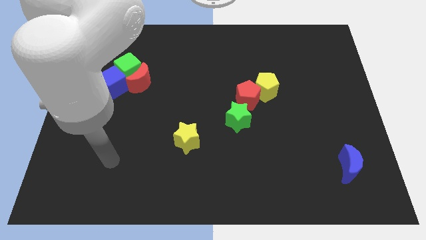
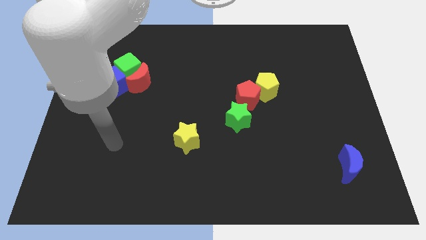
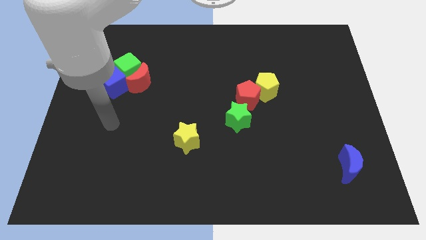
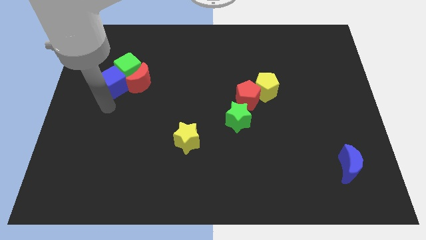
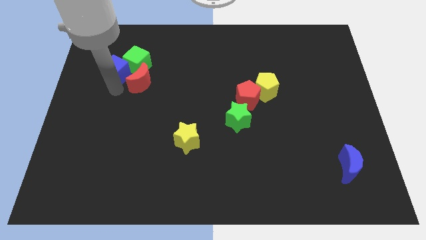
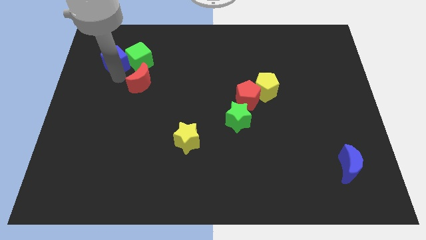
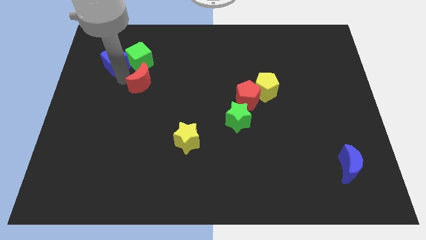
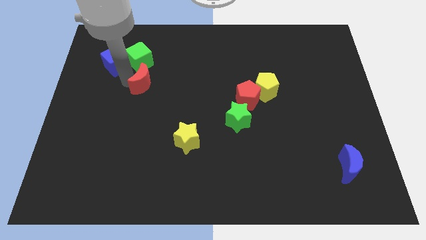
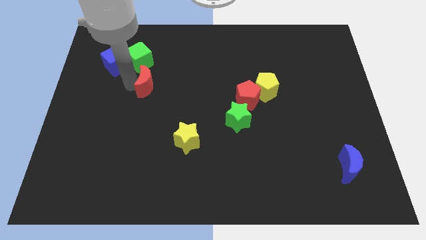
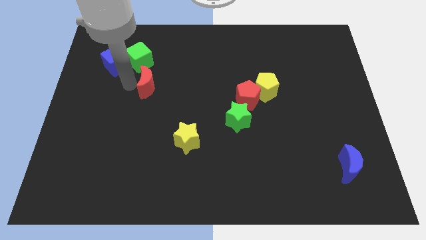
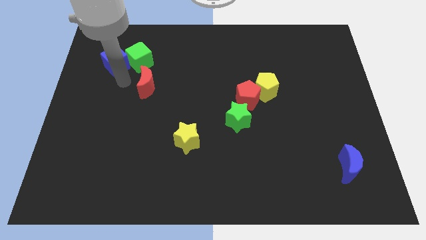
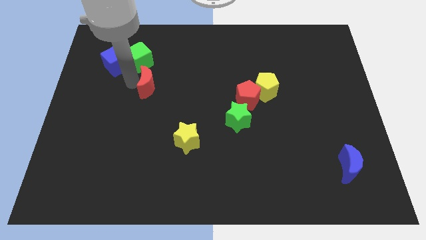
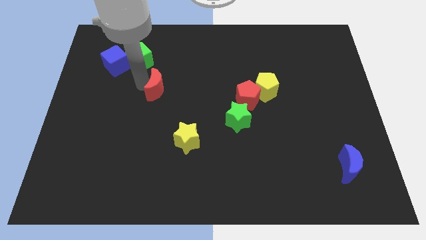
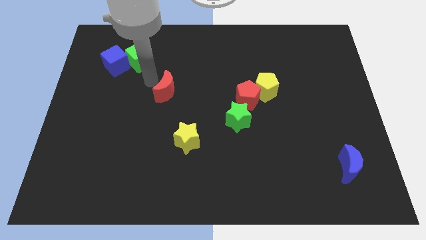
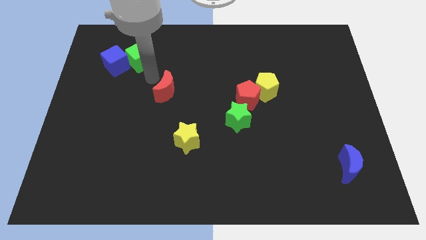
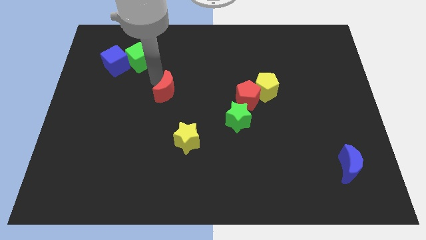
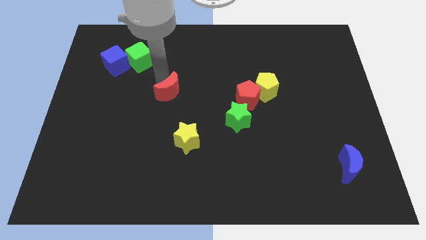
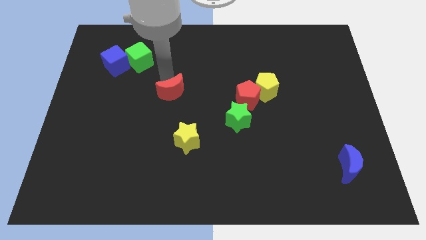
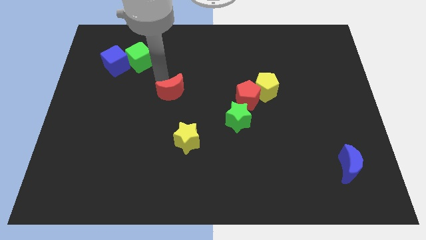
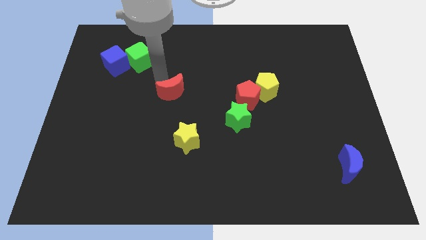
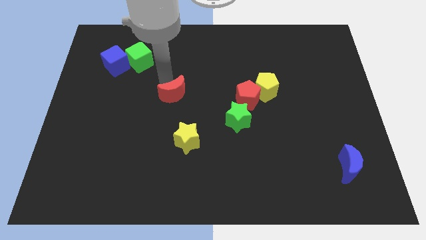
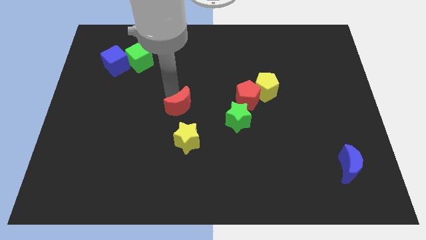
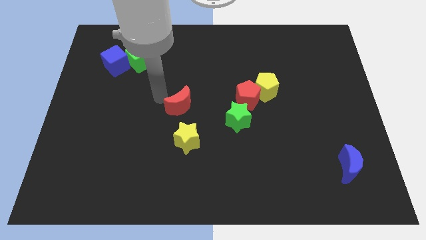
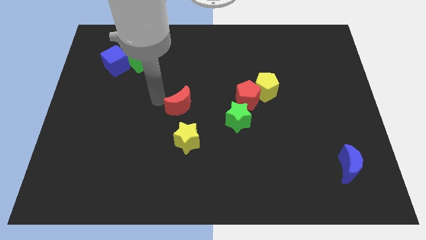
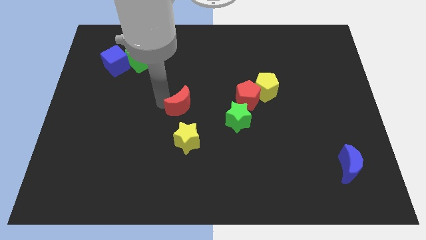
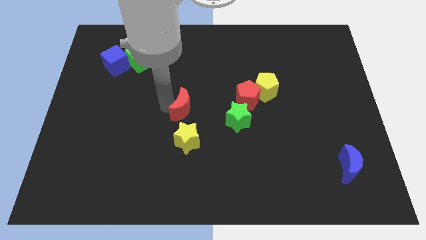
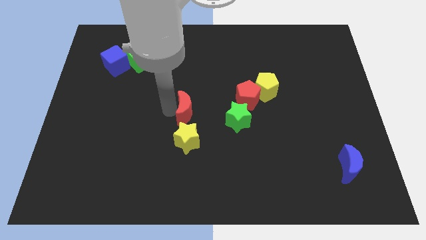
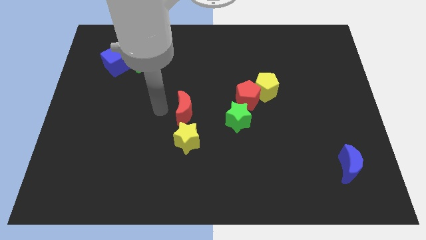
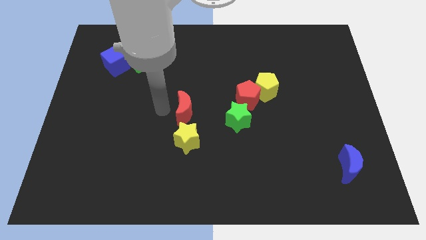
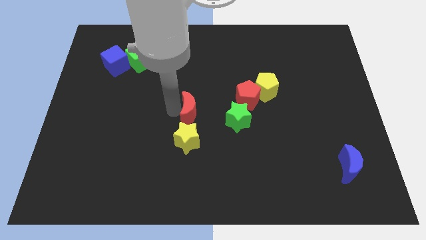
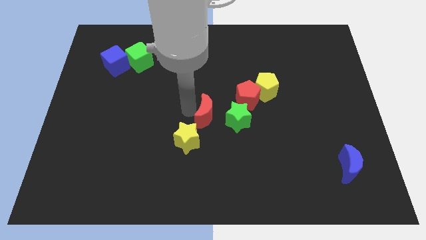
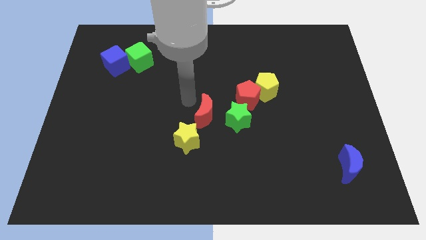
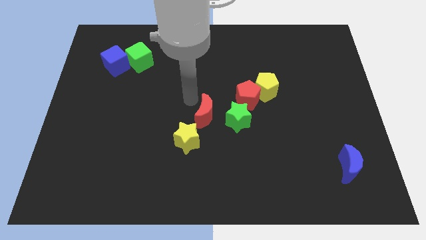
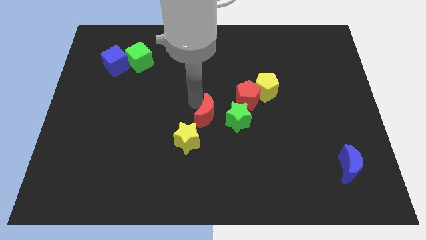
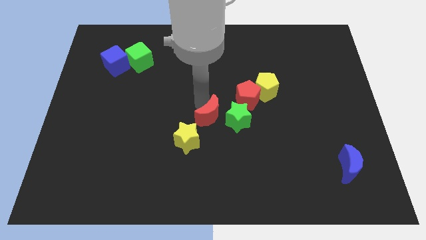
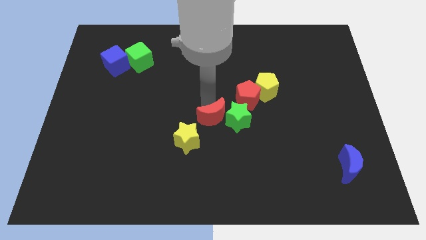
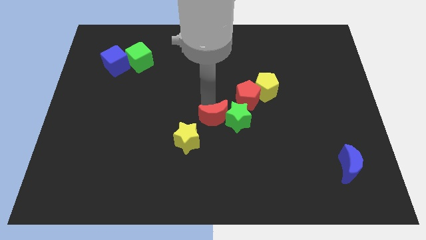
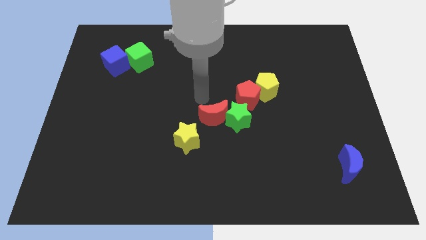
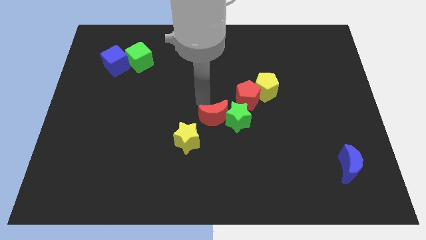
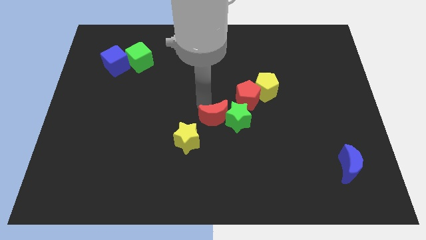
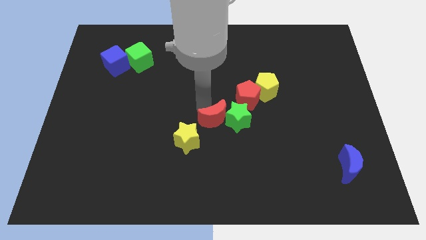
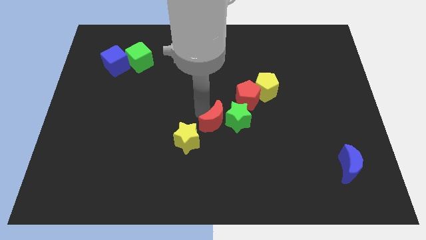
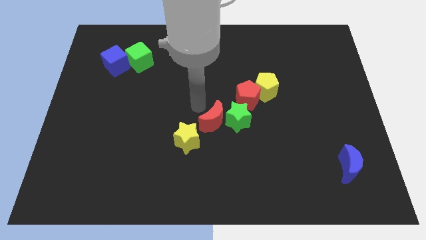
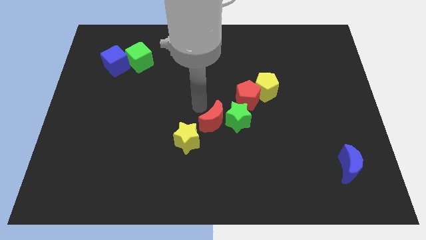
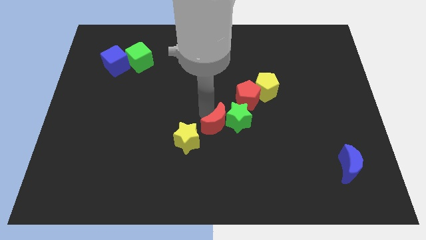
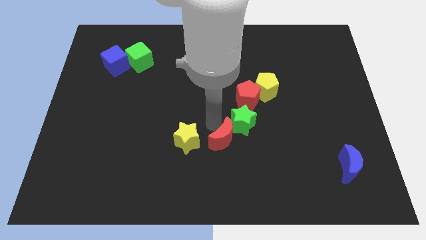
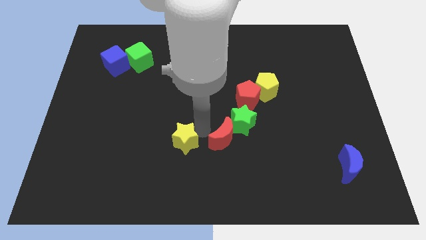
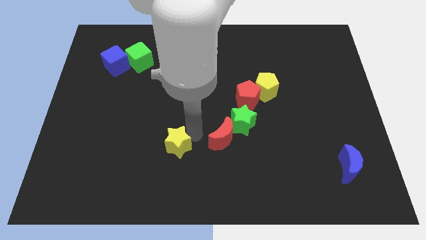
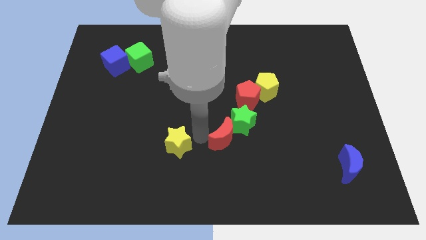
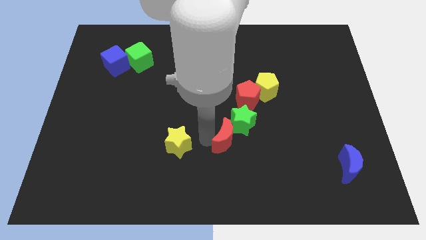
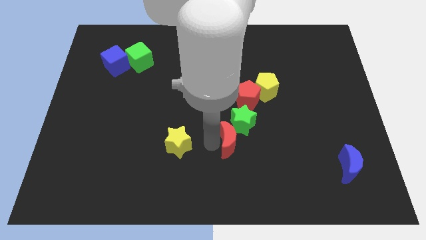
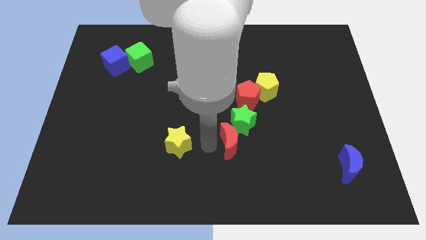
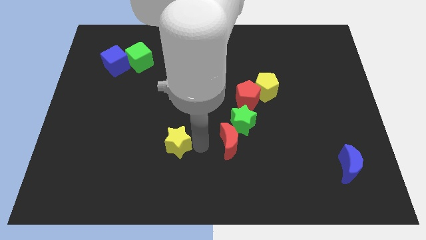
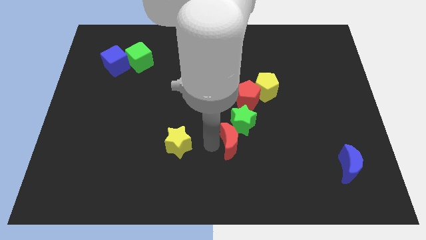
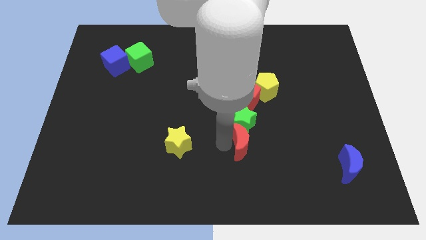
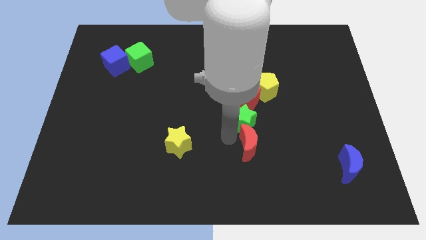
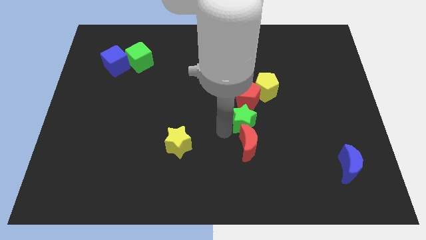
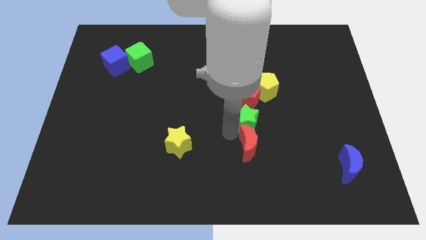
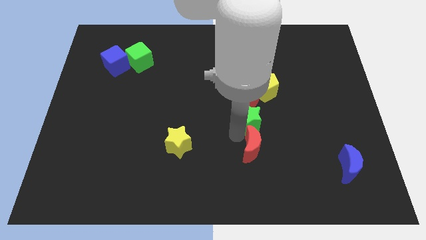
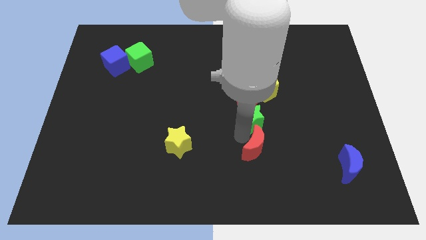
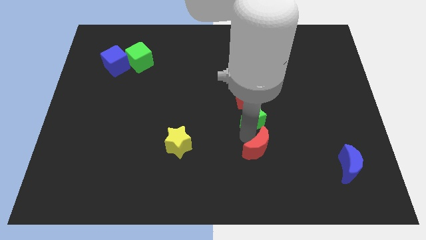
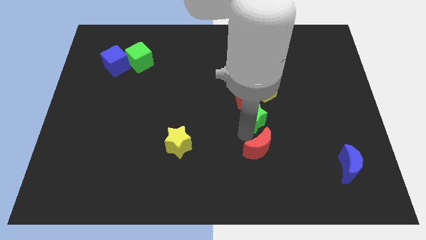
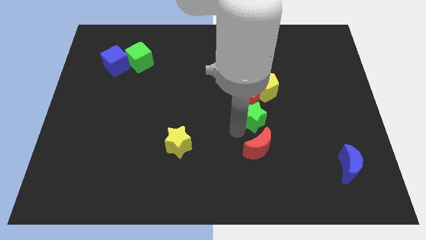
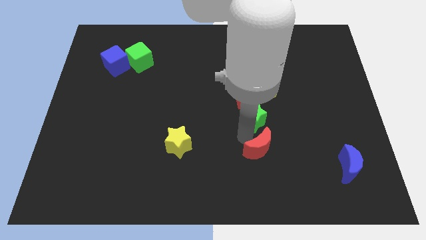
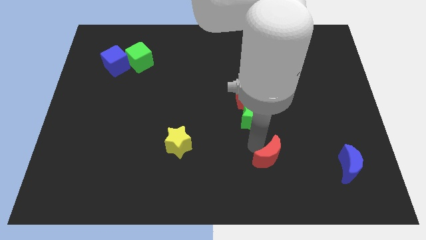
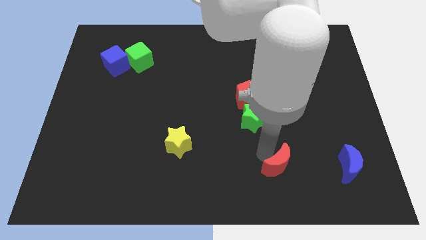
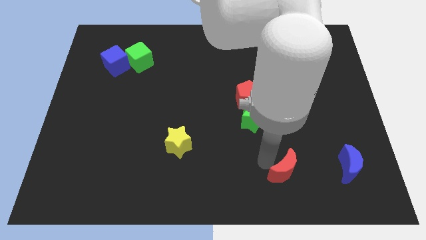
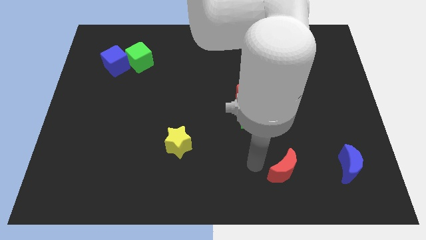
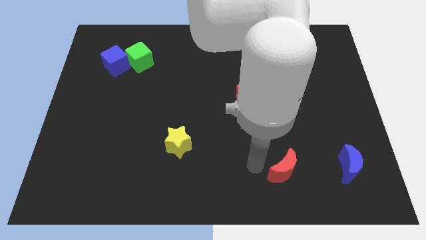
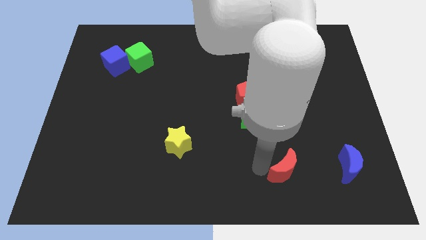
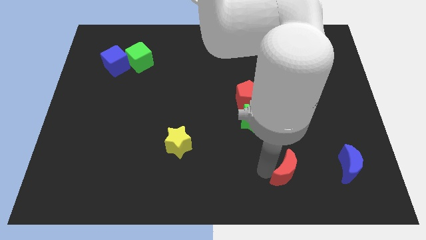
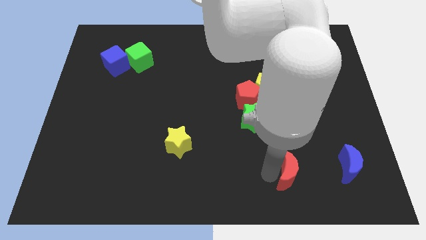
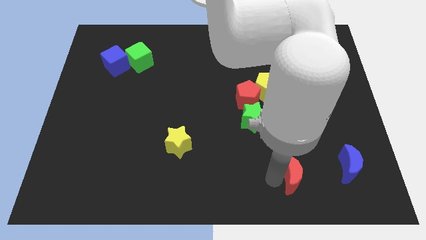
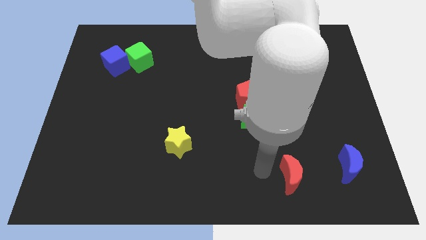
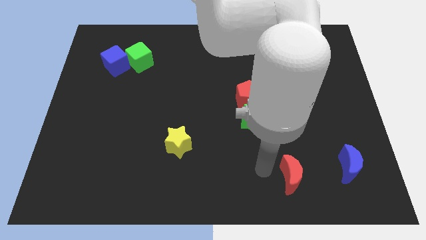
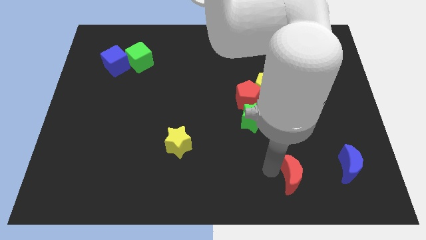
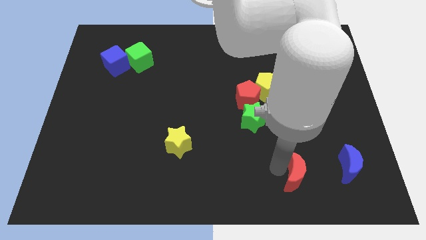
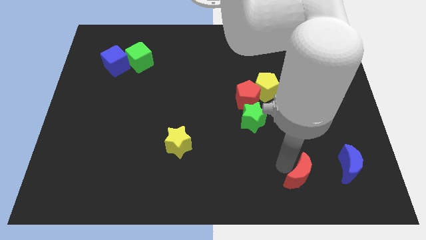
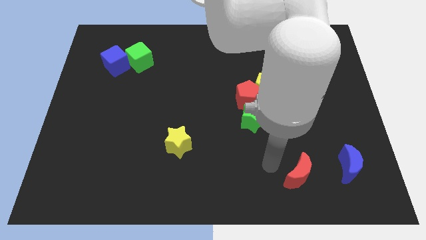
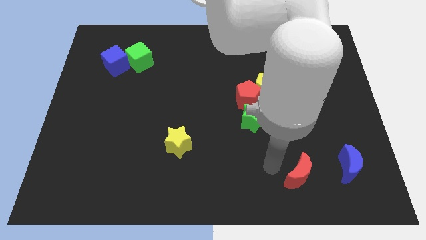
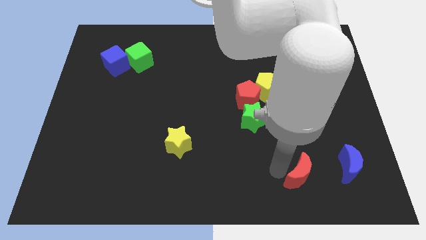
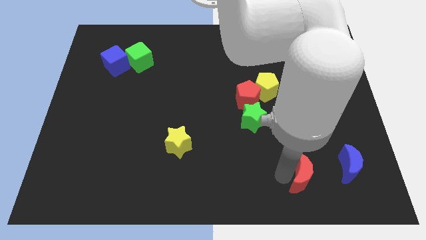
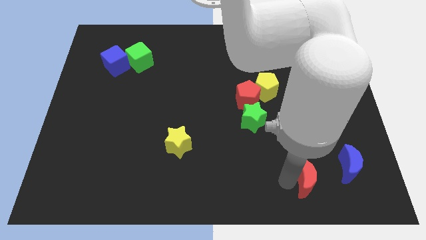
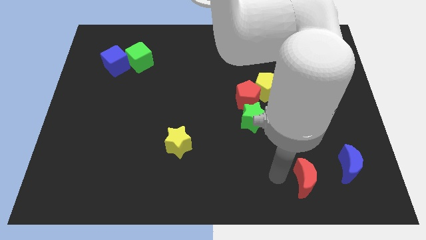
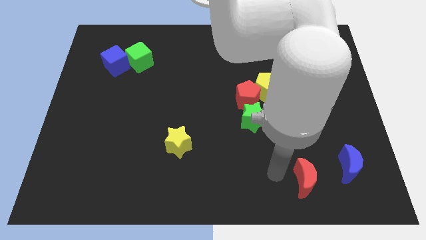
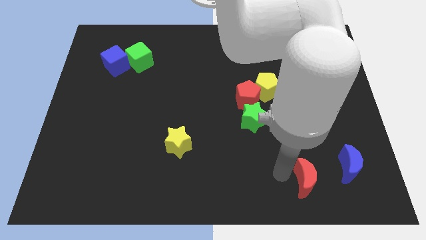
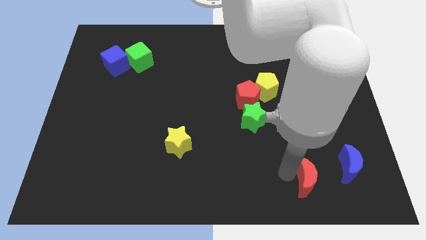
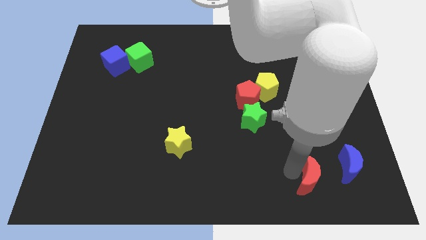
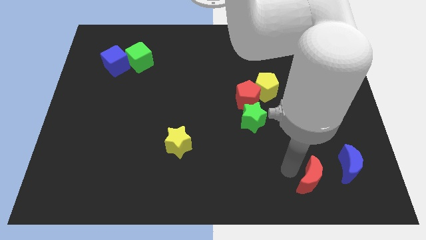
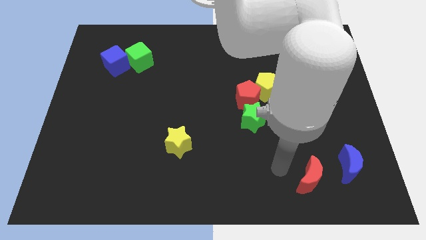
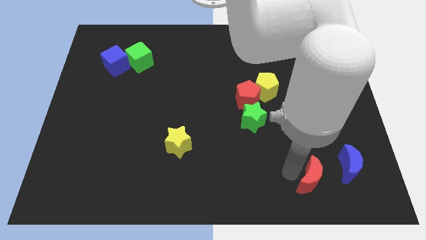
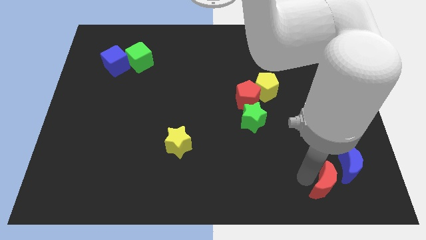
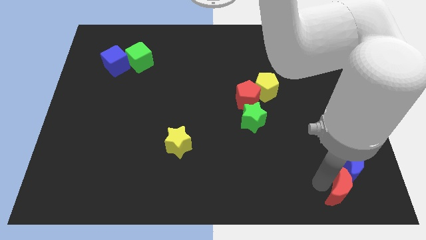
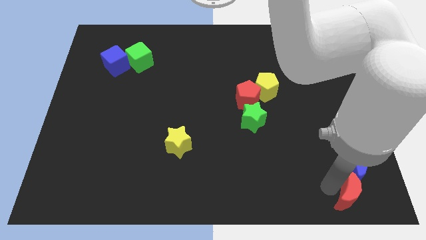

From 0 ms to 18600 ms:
slide the red moon to the bottom right of the board
